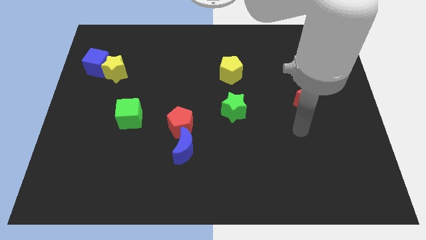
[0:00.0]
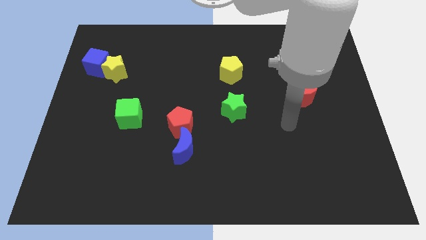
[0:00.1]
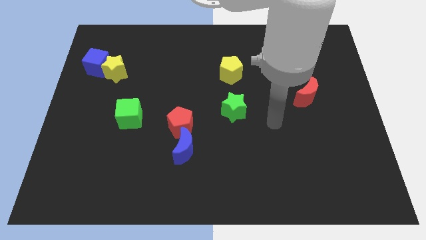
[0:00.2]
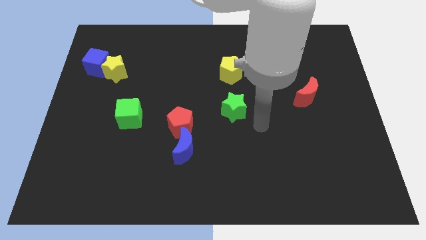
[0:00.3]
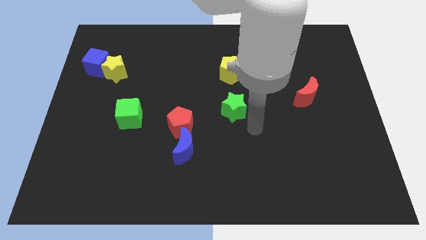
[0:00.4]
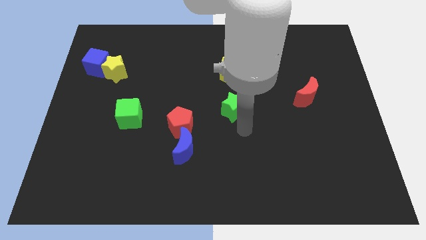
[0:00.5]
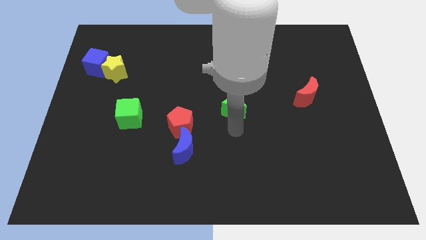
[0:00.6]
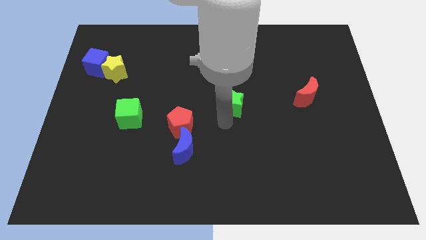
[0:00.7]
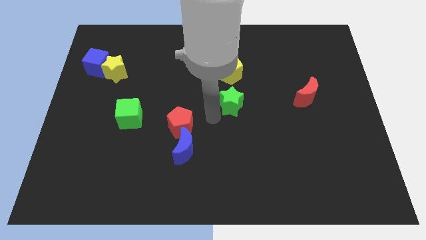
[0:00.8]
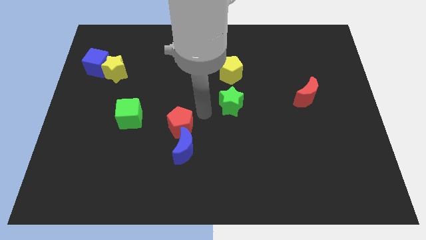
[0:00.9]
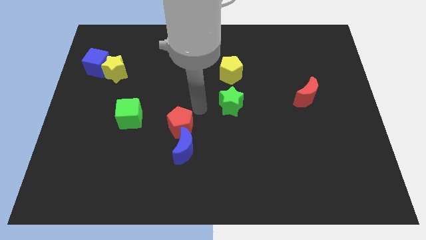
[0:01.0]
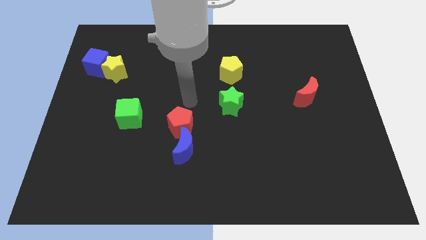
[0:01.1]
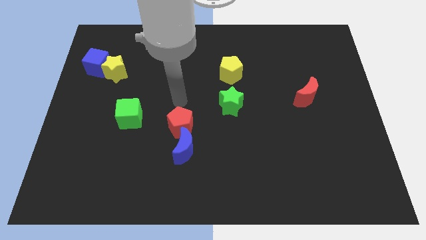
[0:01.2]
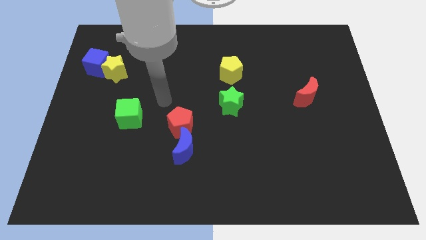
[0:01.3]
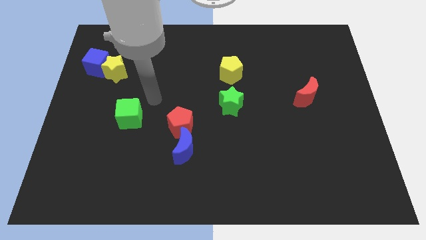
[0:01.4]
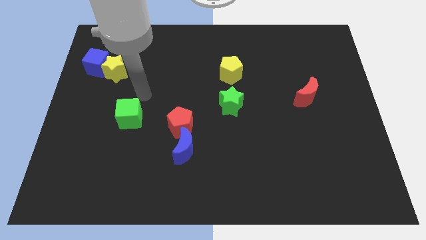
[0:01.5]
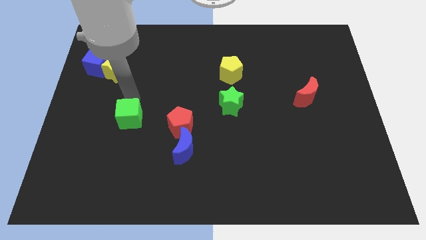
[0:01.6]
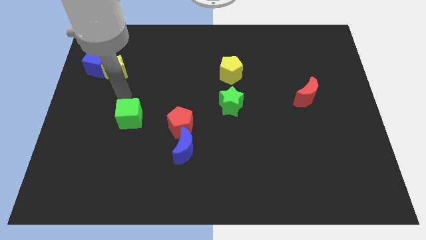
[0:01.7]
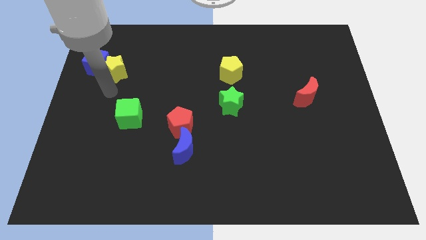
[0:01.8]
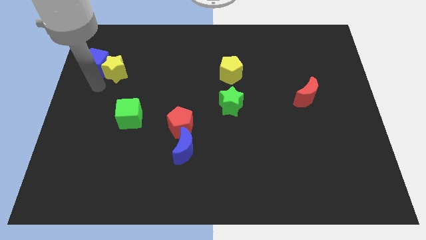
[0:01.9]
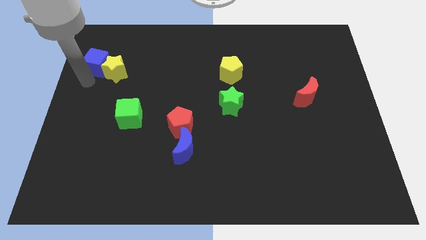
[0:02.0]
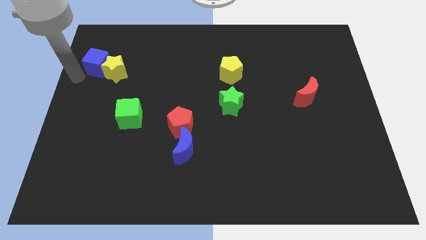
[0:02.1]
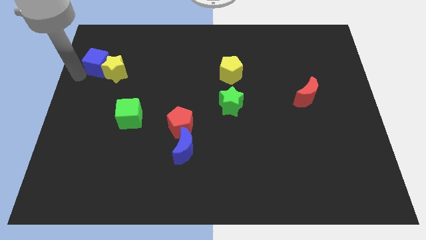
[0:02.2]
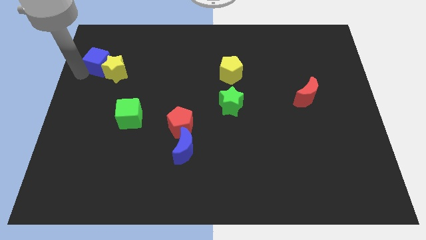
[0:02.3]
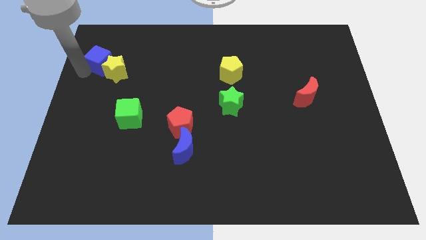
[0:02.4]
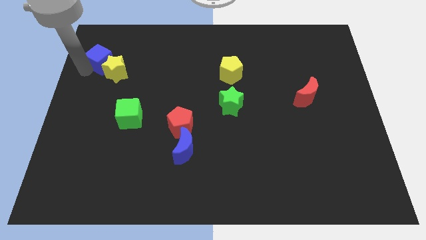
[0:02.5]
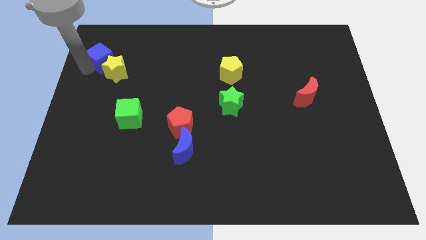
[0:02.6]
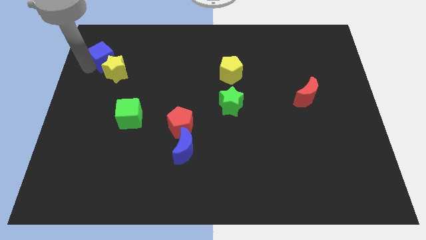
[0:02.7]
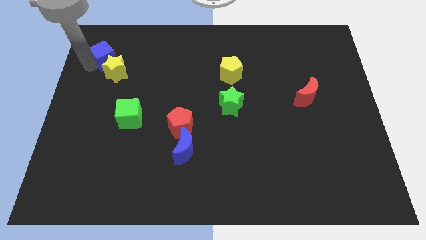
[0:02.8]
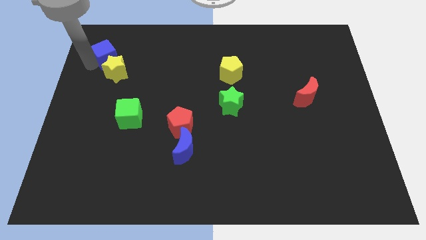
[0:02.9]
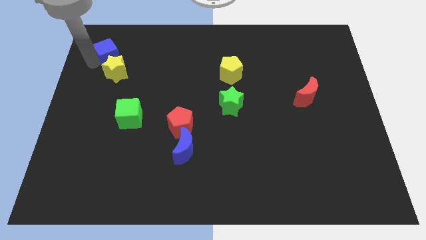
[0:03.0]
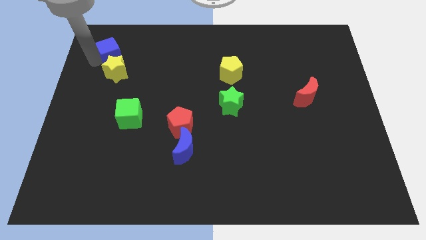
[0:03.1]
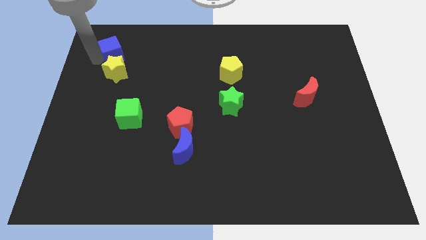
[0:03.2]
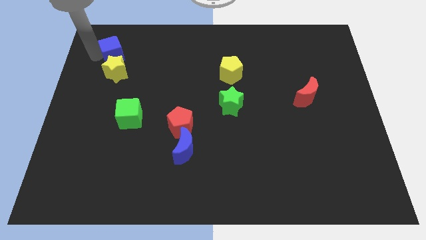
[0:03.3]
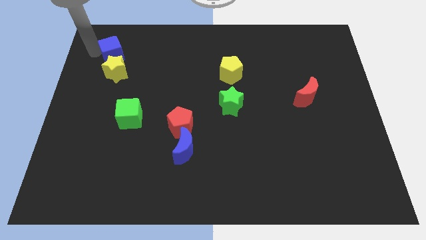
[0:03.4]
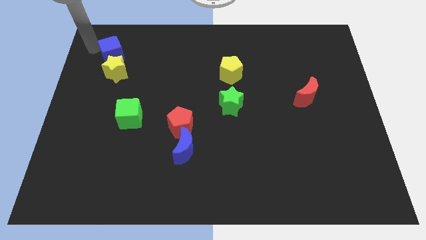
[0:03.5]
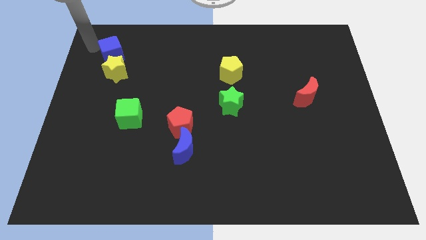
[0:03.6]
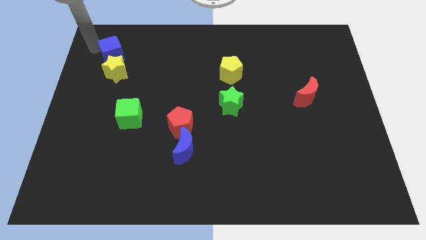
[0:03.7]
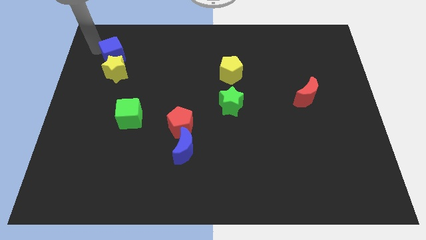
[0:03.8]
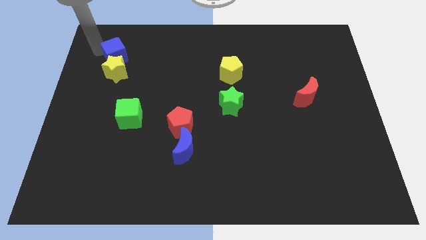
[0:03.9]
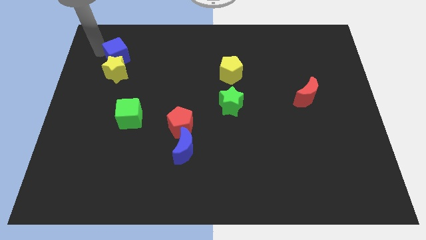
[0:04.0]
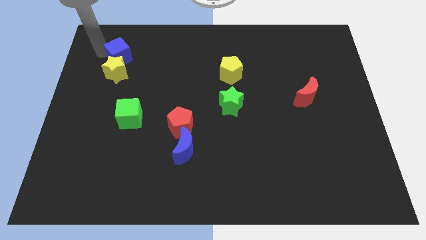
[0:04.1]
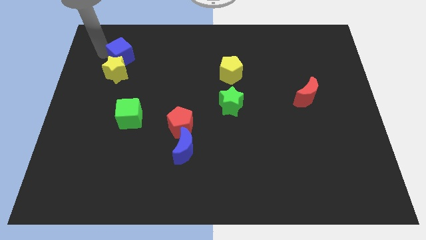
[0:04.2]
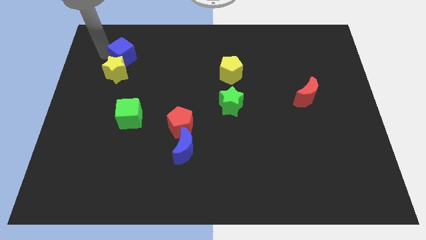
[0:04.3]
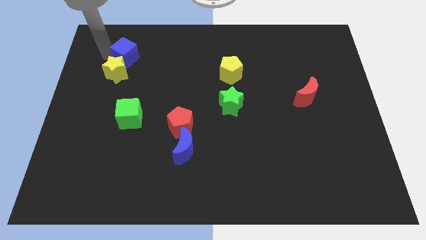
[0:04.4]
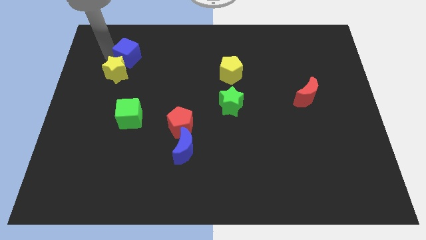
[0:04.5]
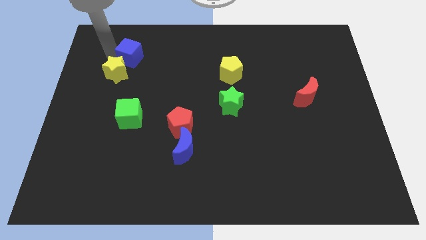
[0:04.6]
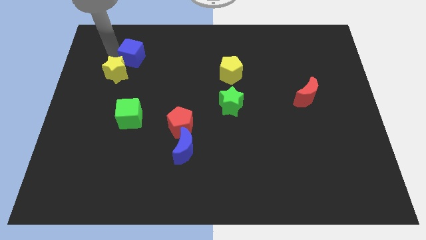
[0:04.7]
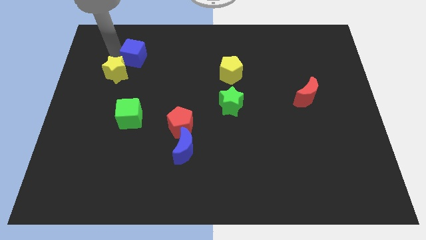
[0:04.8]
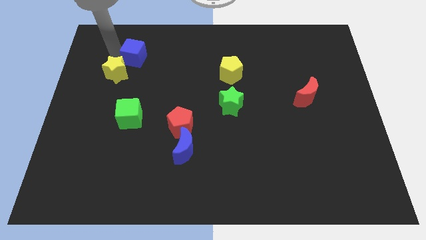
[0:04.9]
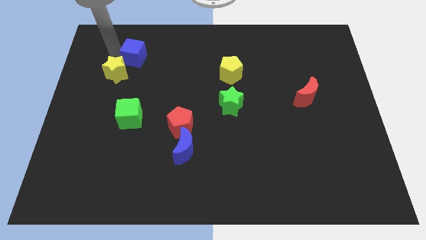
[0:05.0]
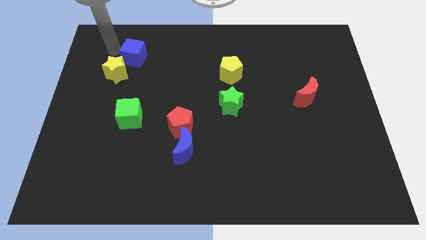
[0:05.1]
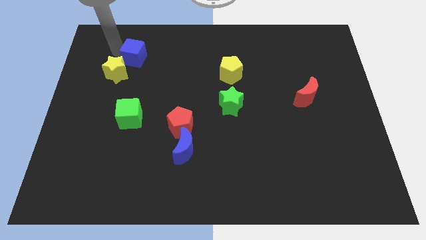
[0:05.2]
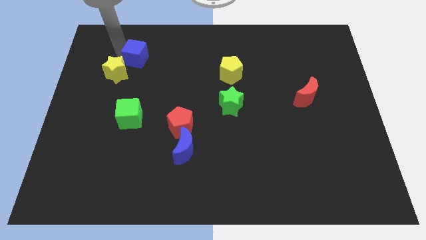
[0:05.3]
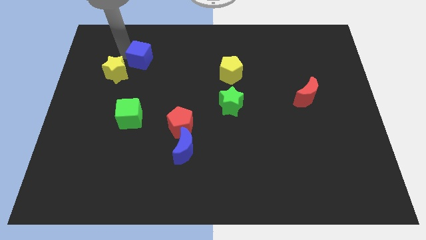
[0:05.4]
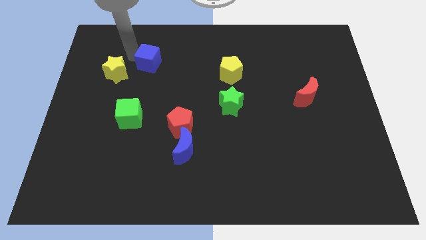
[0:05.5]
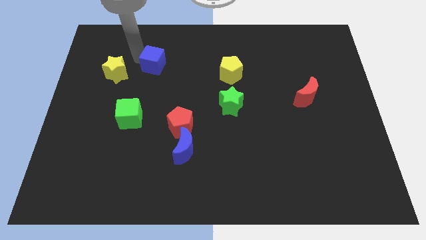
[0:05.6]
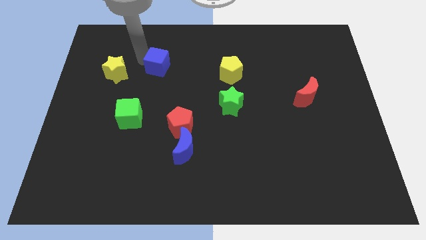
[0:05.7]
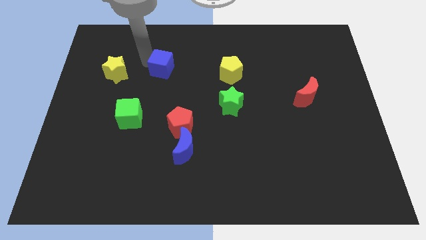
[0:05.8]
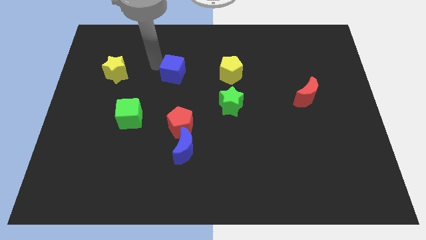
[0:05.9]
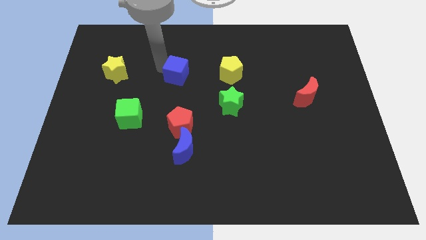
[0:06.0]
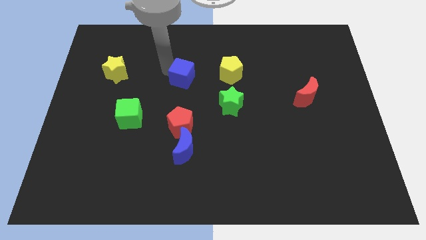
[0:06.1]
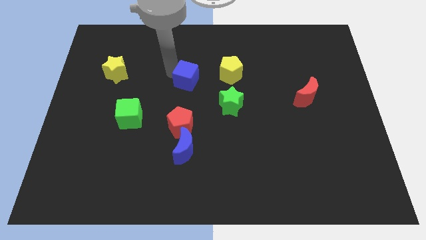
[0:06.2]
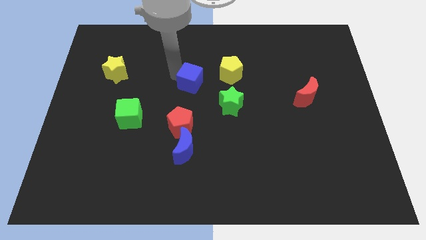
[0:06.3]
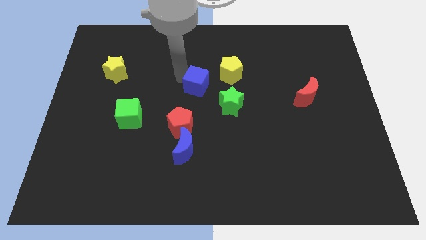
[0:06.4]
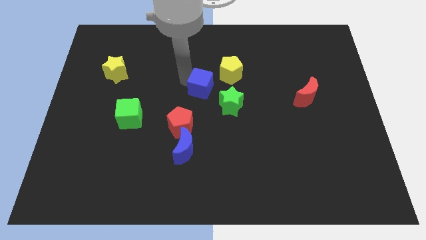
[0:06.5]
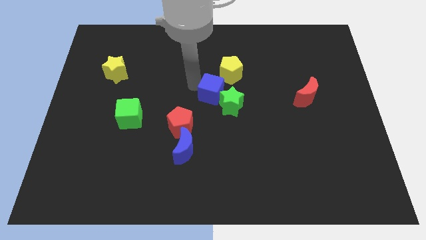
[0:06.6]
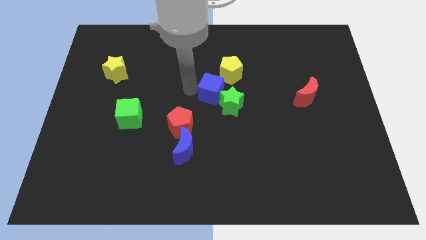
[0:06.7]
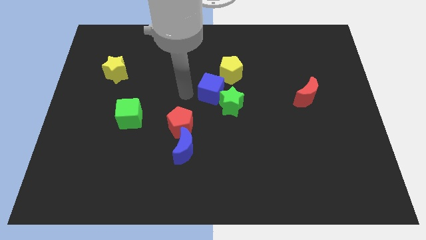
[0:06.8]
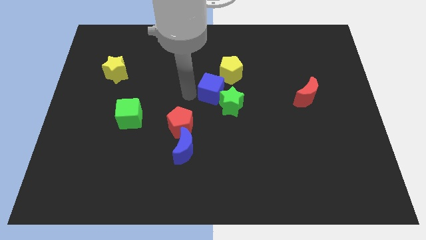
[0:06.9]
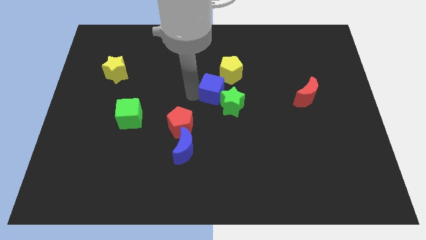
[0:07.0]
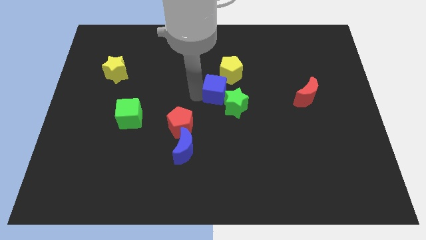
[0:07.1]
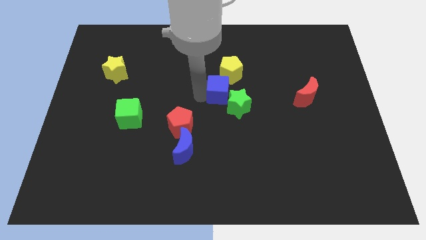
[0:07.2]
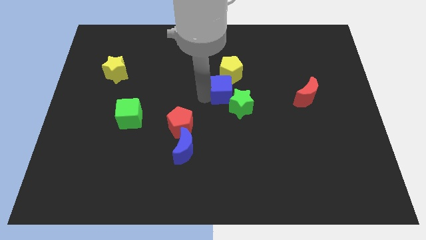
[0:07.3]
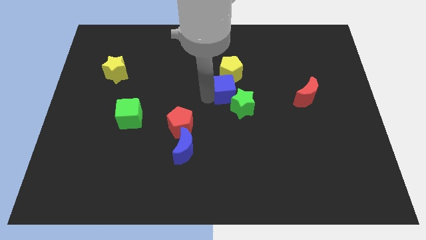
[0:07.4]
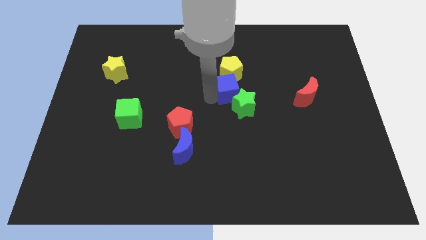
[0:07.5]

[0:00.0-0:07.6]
move the blue cube to the bottom right side of the yellow pentagon
